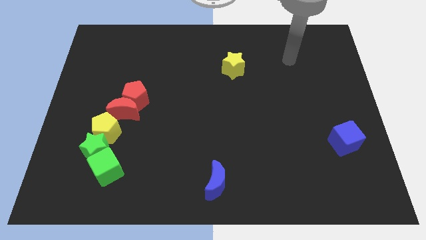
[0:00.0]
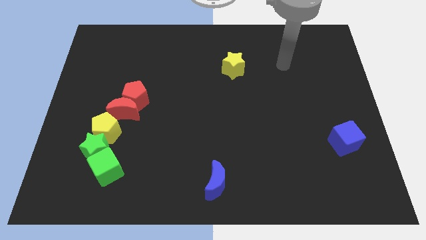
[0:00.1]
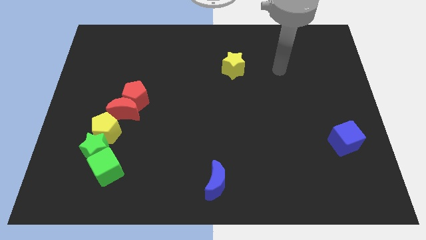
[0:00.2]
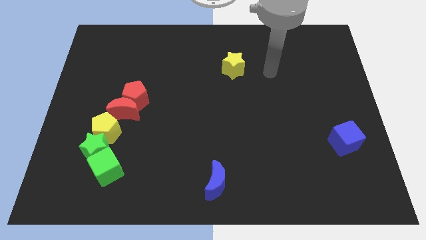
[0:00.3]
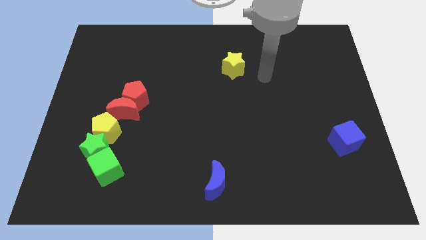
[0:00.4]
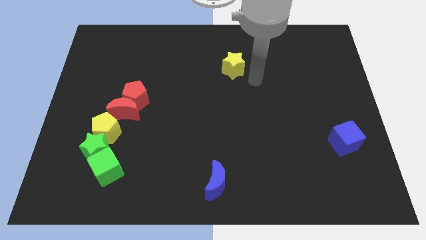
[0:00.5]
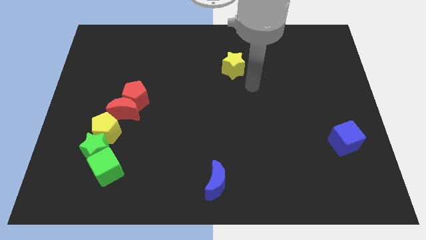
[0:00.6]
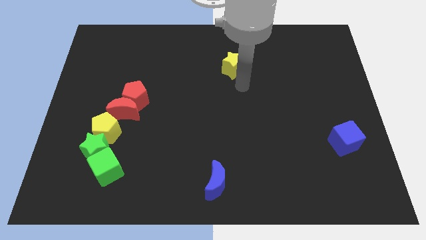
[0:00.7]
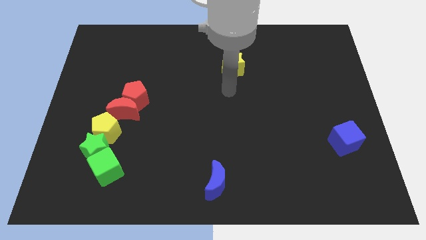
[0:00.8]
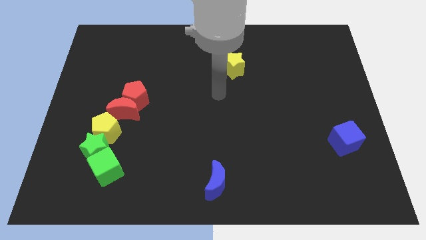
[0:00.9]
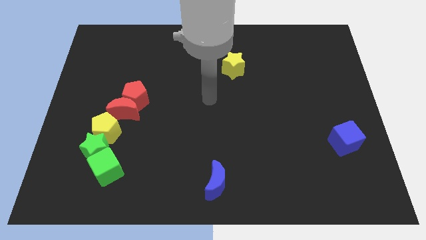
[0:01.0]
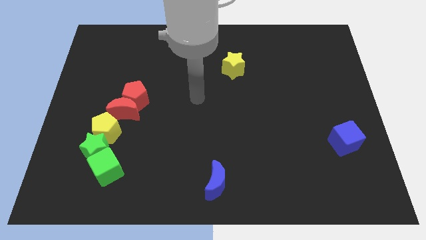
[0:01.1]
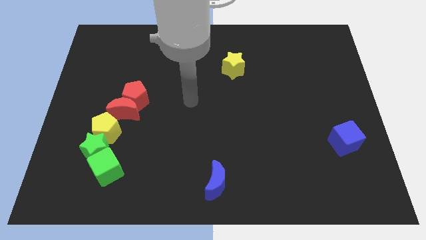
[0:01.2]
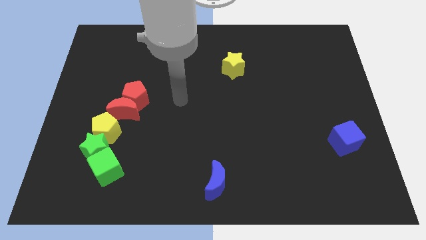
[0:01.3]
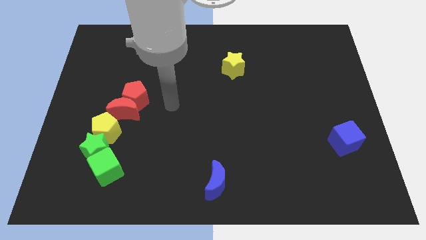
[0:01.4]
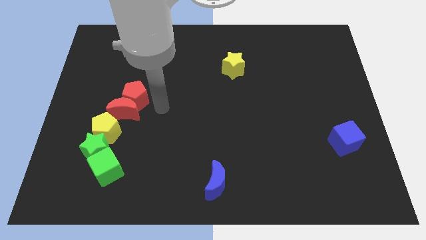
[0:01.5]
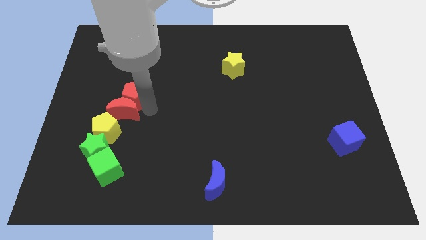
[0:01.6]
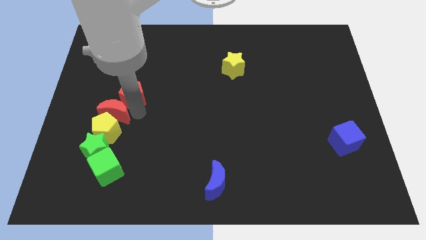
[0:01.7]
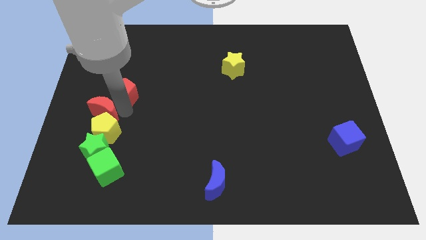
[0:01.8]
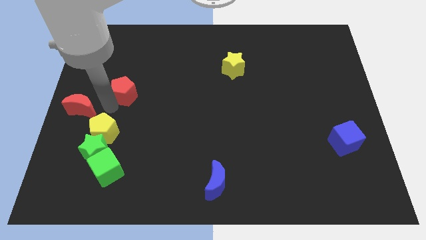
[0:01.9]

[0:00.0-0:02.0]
move the red pentagon away from the red moon

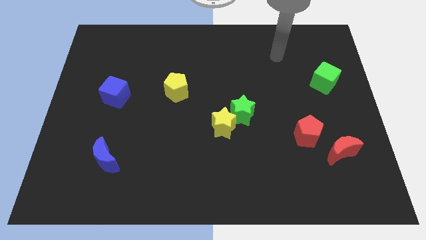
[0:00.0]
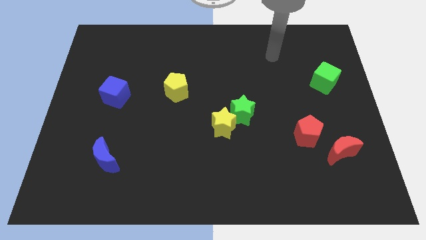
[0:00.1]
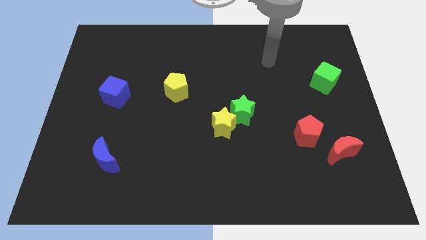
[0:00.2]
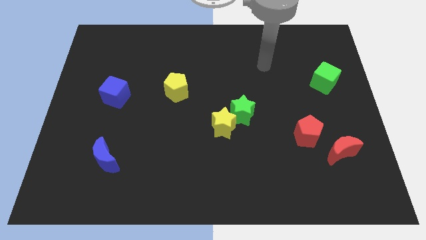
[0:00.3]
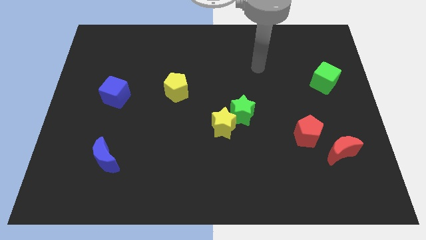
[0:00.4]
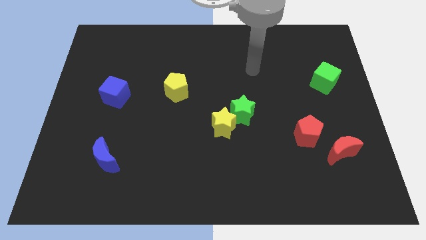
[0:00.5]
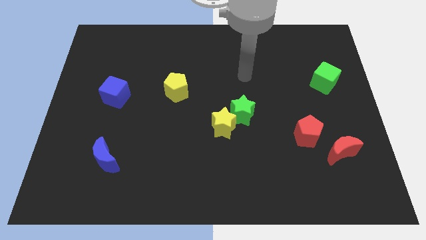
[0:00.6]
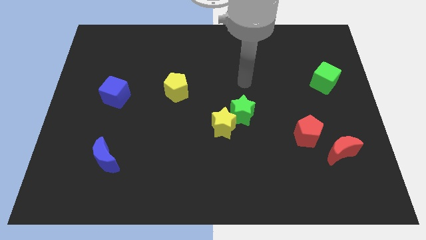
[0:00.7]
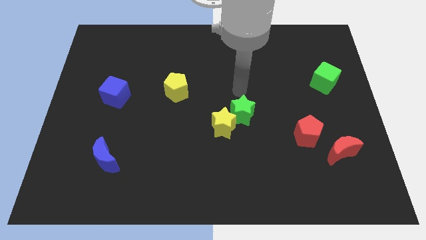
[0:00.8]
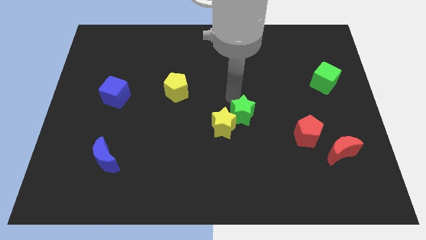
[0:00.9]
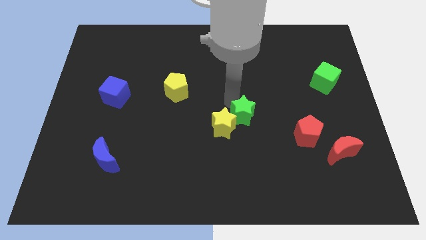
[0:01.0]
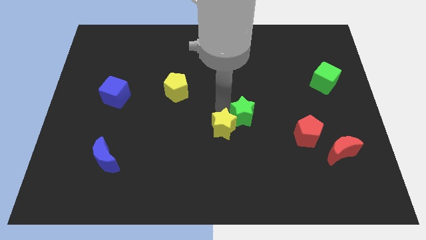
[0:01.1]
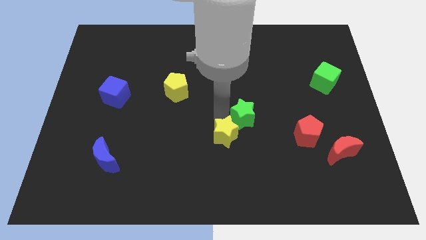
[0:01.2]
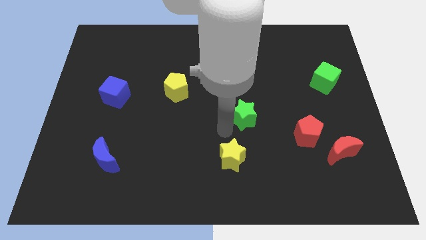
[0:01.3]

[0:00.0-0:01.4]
separate the green star from the yellow star

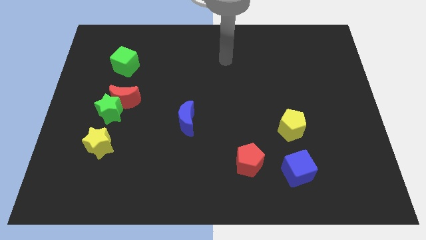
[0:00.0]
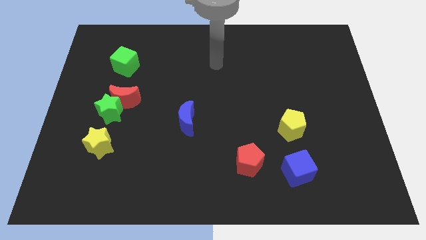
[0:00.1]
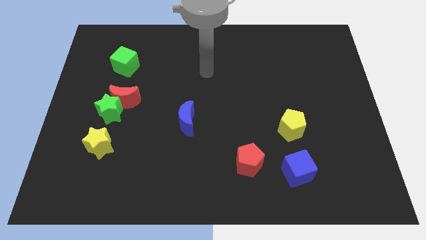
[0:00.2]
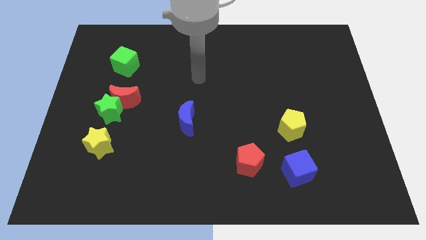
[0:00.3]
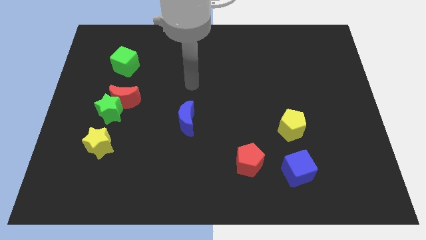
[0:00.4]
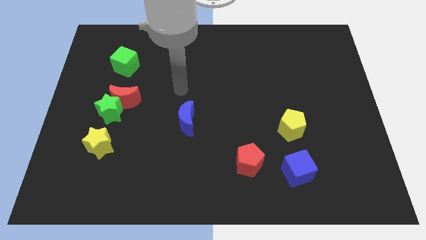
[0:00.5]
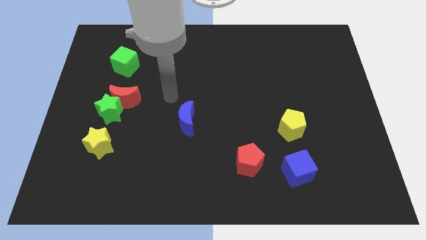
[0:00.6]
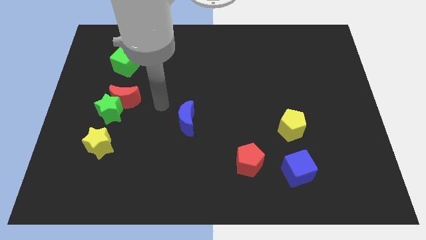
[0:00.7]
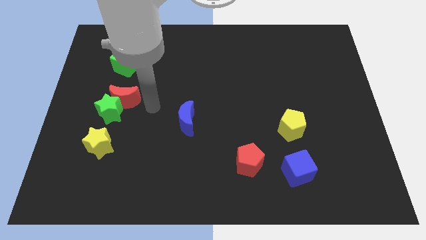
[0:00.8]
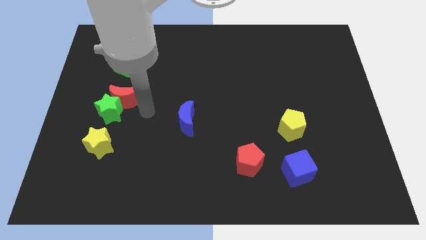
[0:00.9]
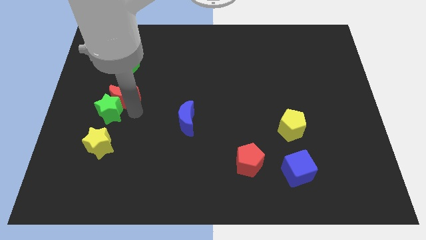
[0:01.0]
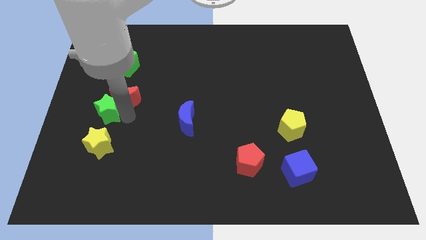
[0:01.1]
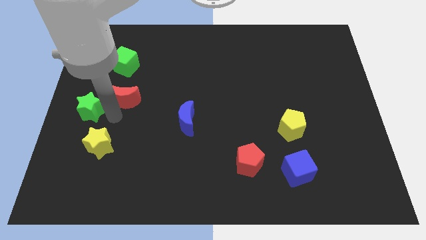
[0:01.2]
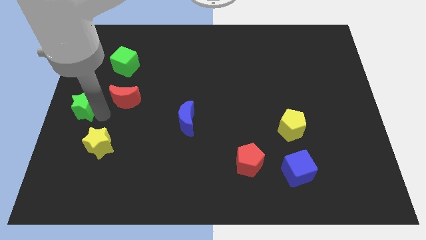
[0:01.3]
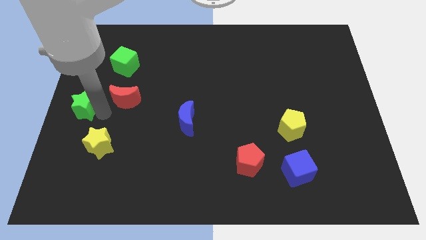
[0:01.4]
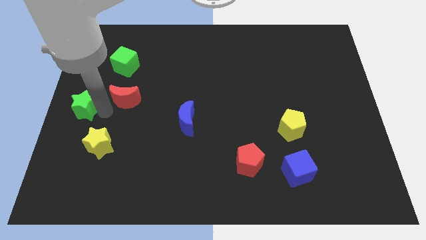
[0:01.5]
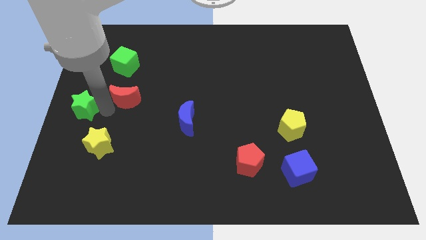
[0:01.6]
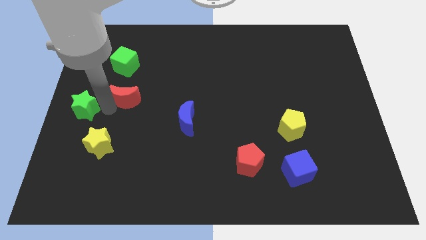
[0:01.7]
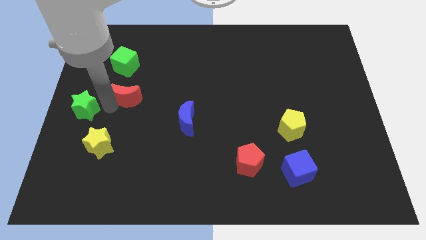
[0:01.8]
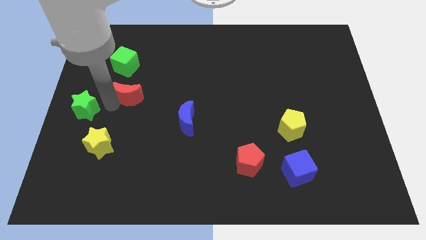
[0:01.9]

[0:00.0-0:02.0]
separate the red moon from the green star

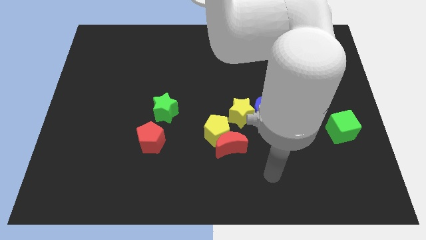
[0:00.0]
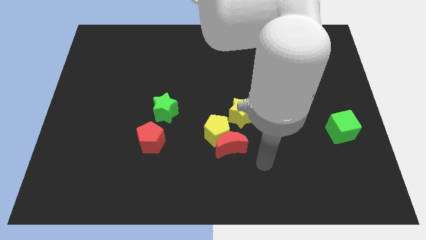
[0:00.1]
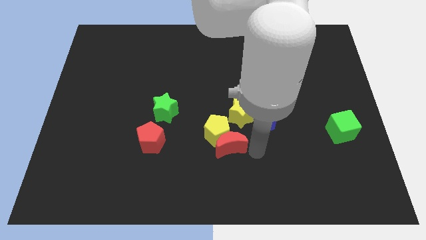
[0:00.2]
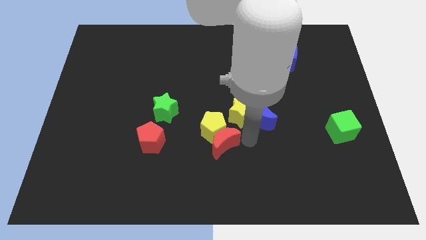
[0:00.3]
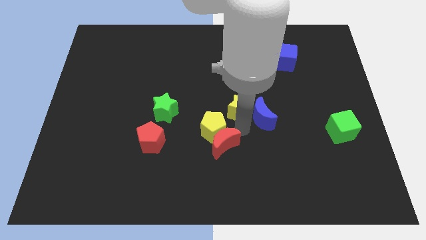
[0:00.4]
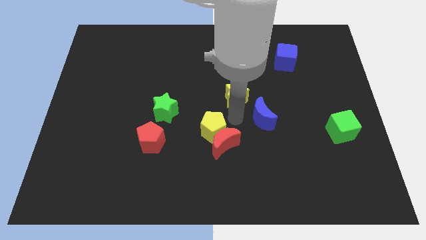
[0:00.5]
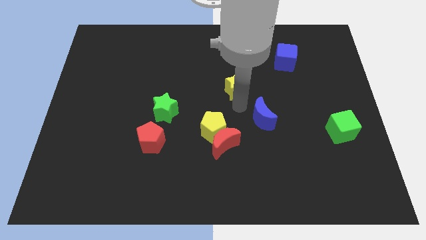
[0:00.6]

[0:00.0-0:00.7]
pull the blue moon apart from the yellow star

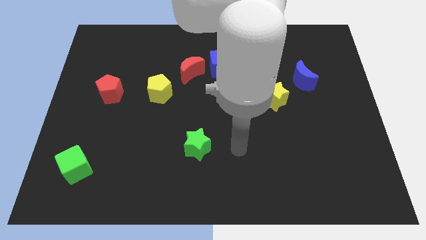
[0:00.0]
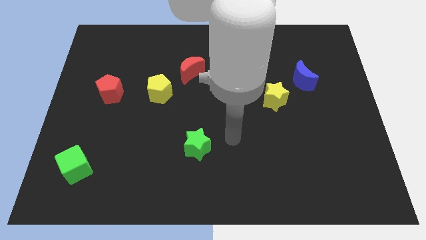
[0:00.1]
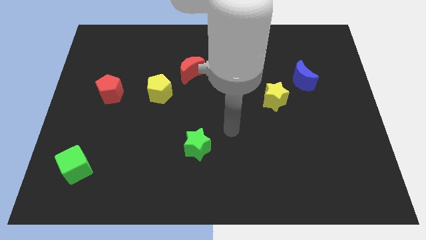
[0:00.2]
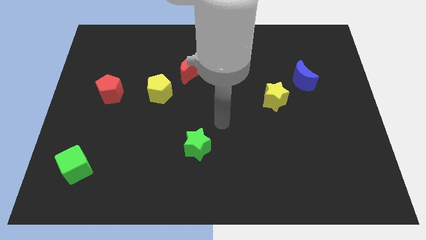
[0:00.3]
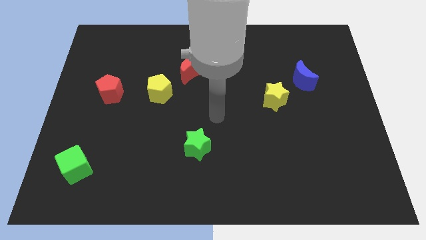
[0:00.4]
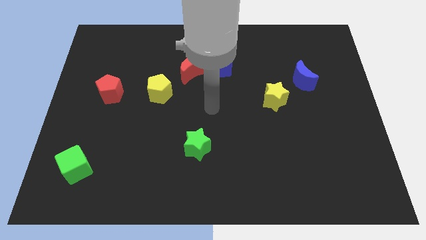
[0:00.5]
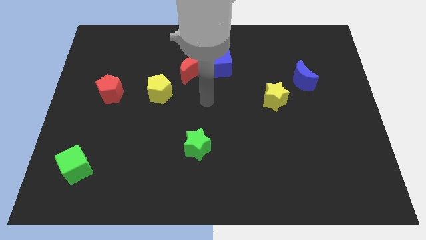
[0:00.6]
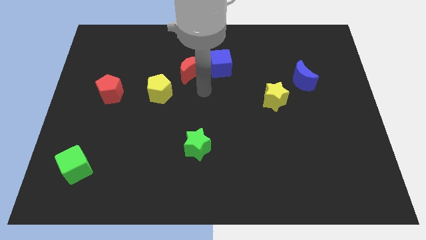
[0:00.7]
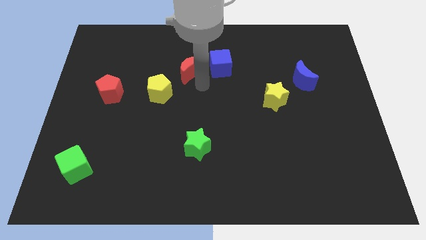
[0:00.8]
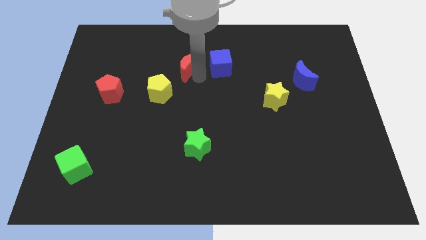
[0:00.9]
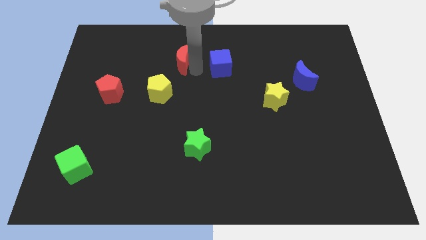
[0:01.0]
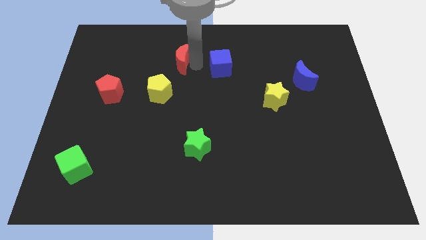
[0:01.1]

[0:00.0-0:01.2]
pull the blue cube apart from the red moon

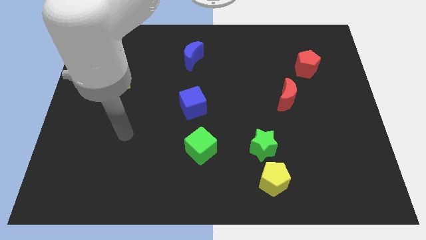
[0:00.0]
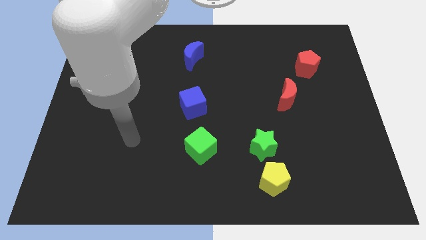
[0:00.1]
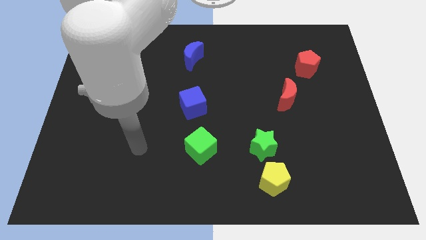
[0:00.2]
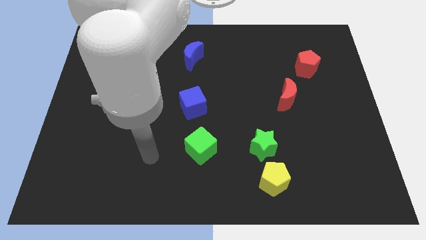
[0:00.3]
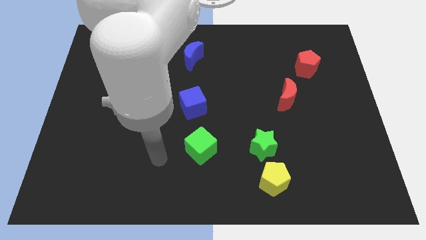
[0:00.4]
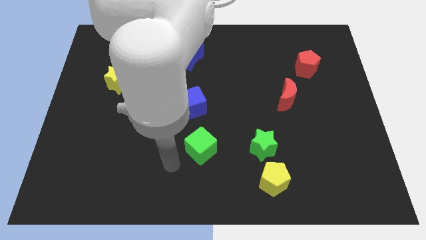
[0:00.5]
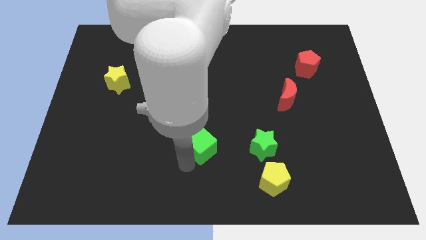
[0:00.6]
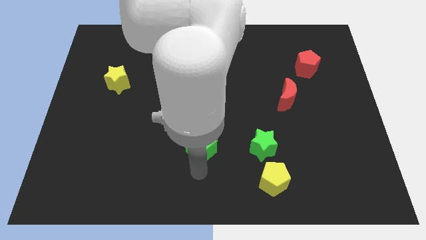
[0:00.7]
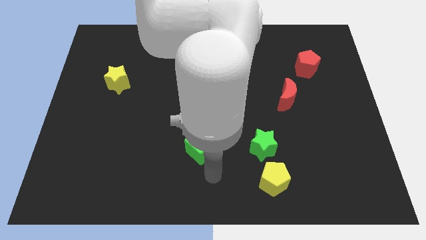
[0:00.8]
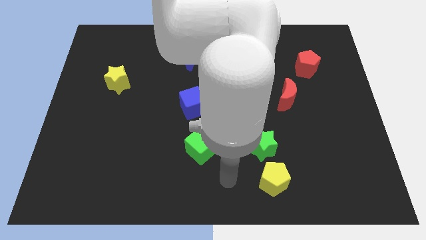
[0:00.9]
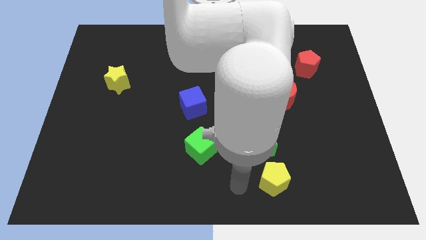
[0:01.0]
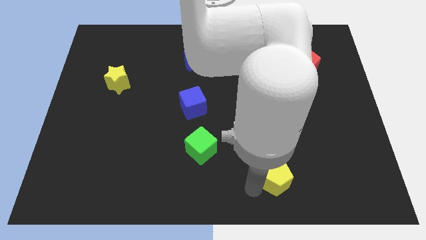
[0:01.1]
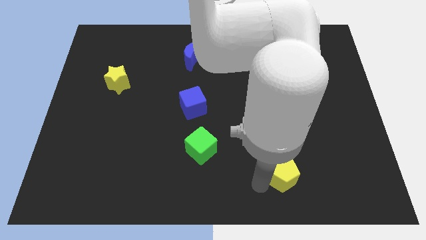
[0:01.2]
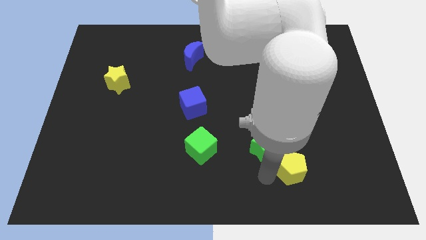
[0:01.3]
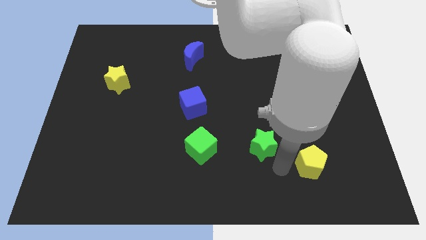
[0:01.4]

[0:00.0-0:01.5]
move the green star away from the yellow pentagon

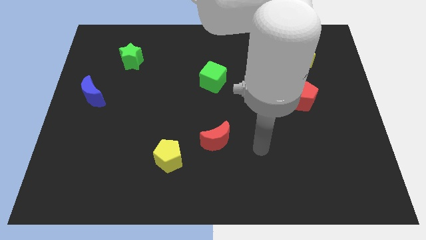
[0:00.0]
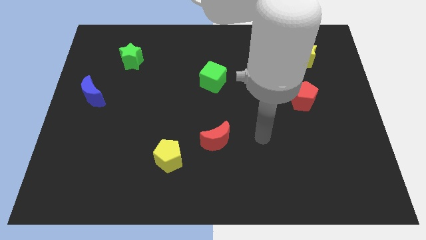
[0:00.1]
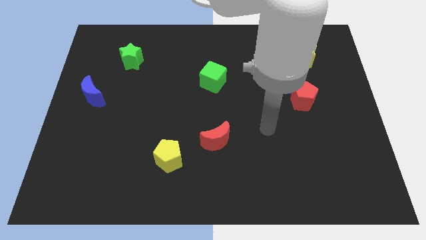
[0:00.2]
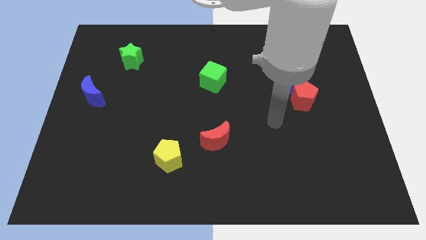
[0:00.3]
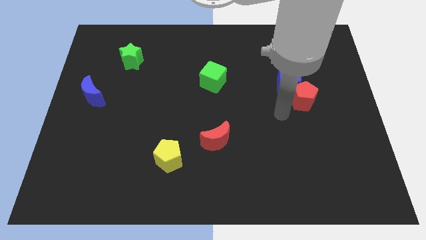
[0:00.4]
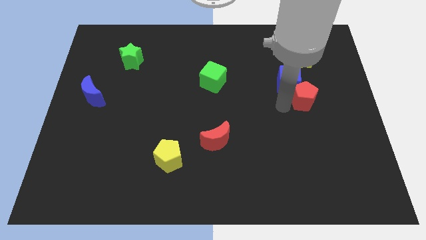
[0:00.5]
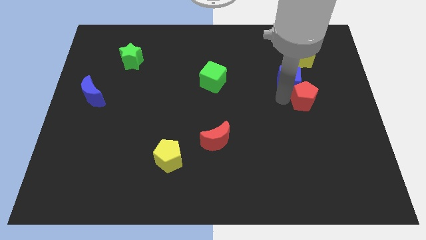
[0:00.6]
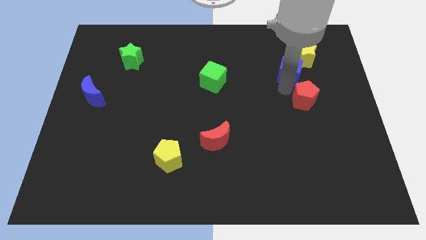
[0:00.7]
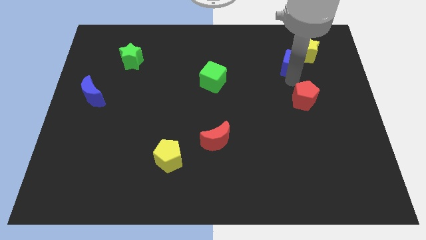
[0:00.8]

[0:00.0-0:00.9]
separate the red pentagon from the blue cube
